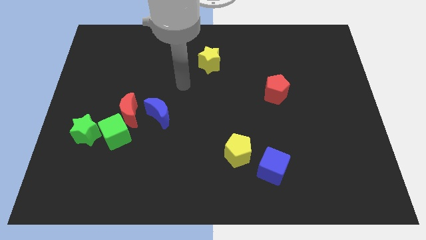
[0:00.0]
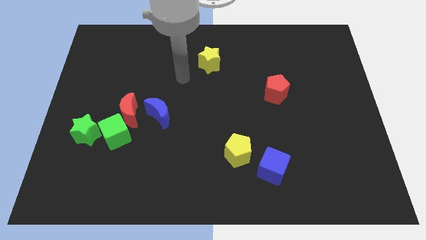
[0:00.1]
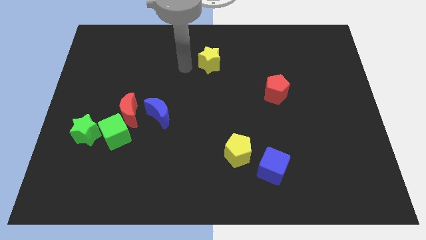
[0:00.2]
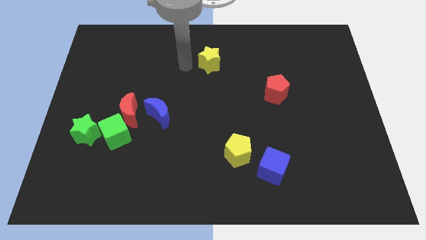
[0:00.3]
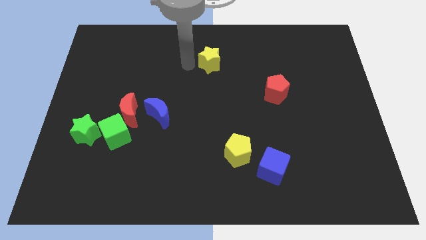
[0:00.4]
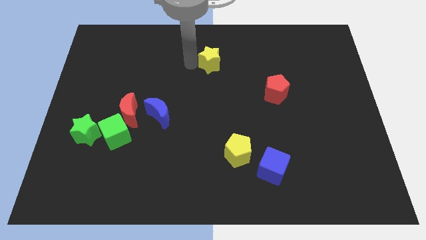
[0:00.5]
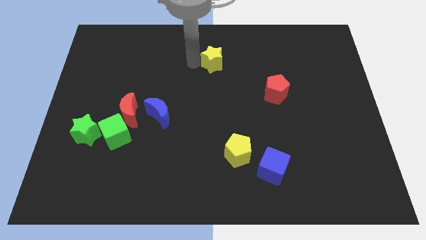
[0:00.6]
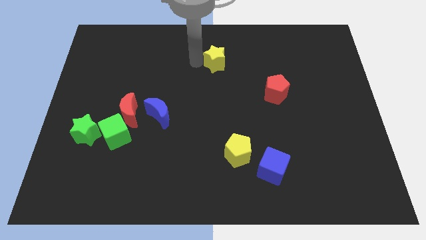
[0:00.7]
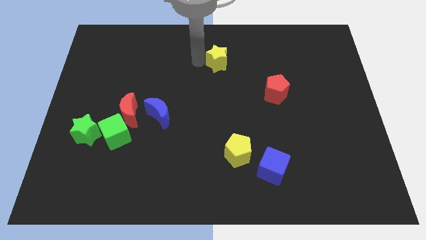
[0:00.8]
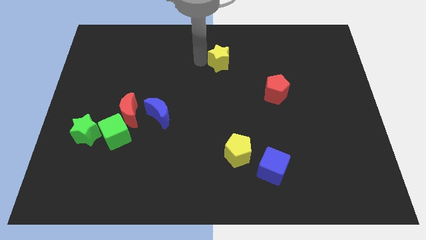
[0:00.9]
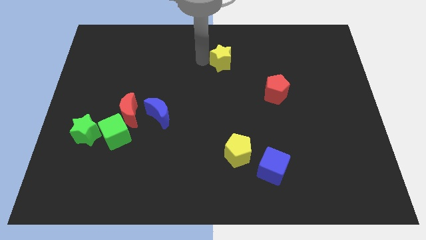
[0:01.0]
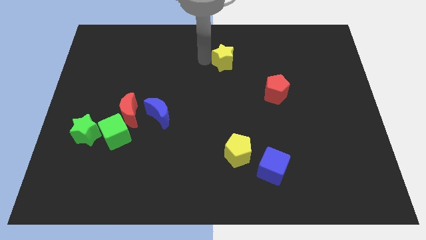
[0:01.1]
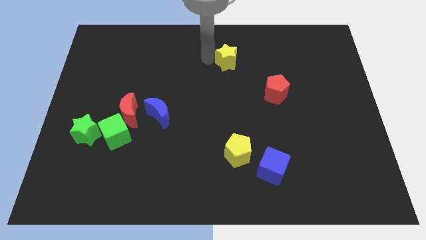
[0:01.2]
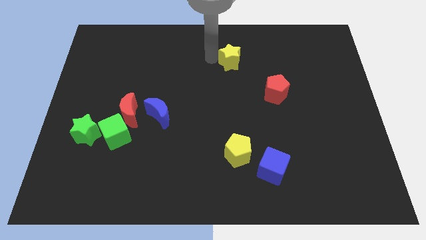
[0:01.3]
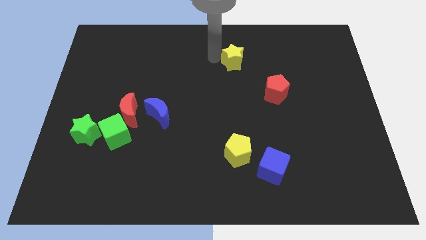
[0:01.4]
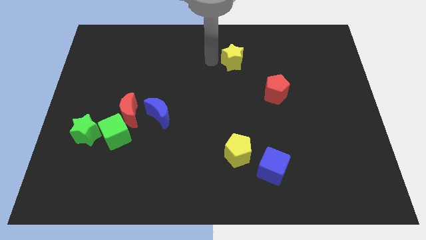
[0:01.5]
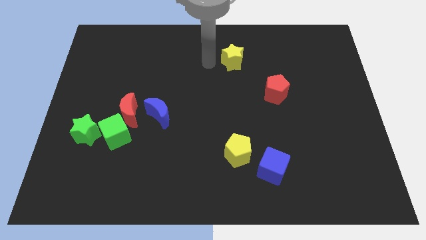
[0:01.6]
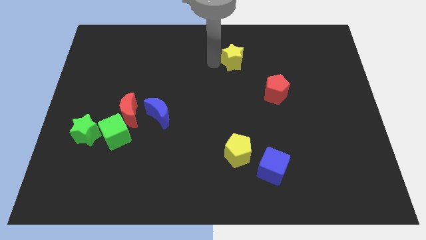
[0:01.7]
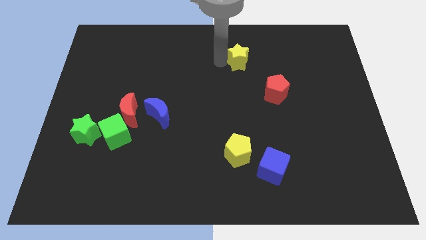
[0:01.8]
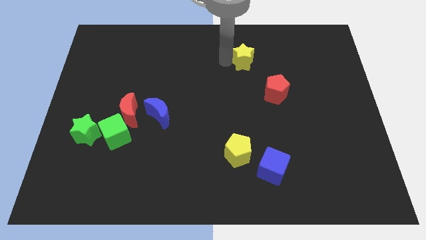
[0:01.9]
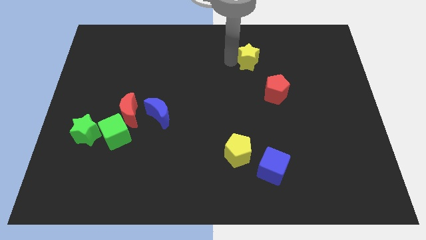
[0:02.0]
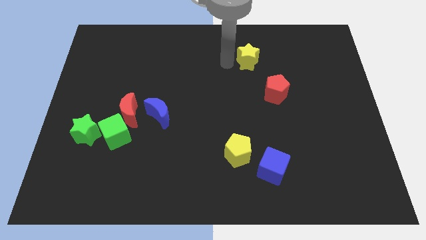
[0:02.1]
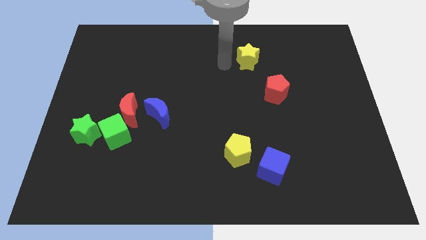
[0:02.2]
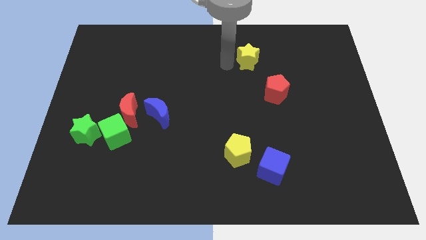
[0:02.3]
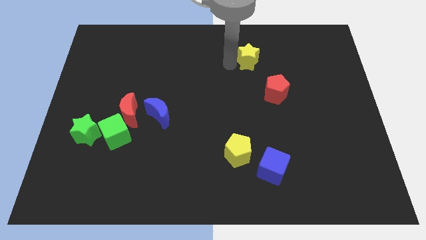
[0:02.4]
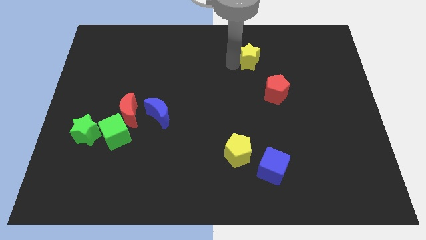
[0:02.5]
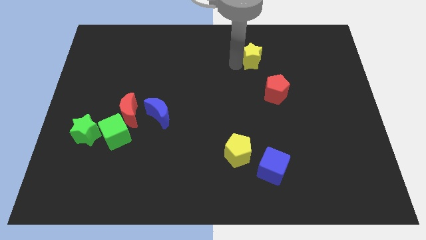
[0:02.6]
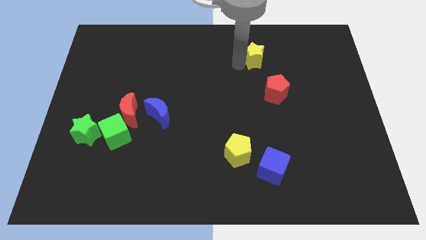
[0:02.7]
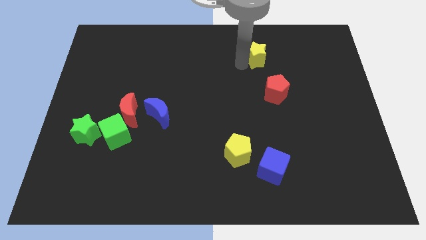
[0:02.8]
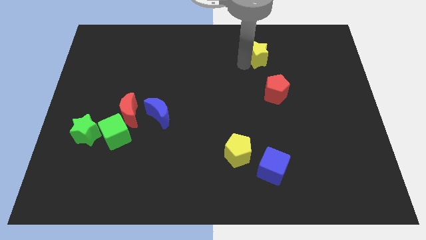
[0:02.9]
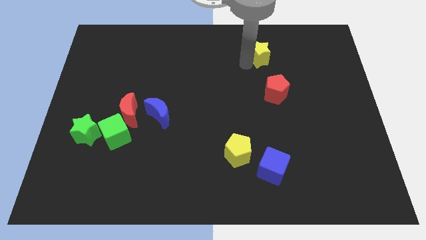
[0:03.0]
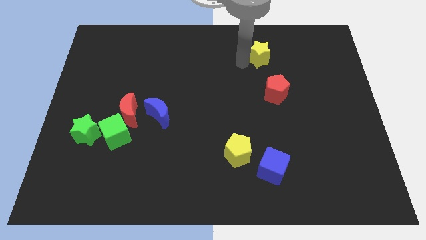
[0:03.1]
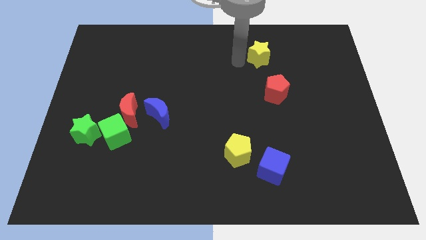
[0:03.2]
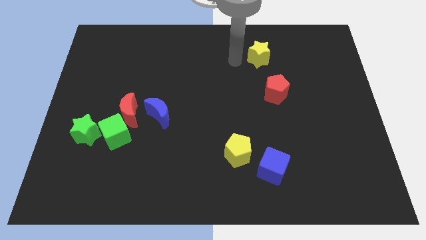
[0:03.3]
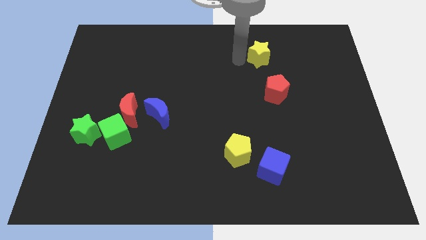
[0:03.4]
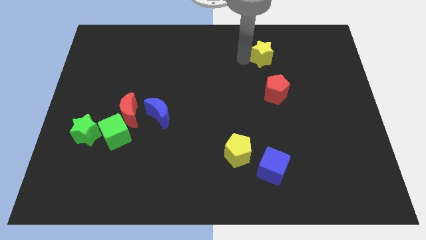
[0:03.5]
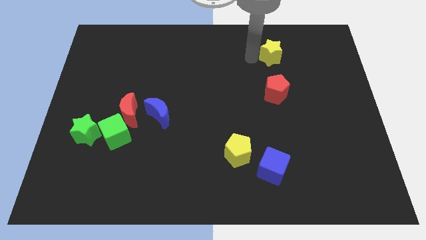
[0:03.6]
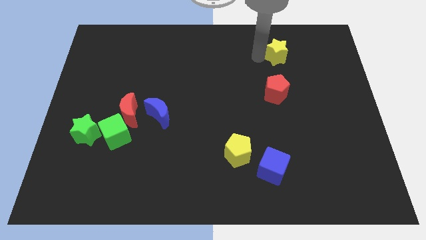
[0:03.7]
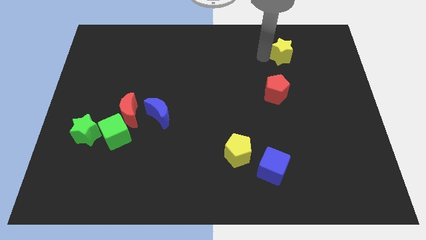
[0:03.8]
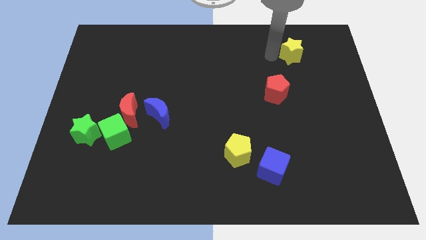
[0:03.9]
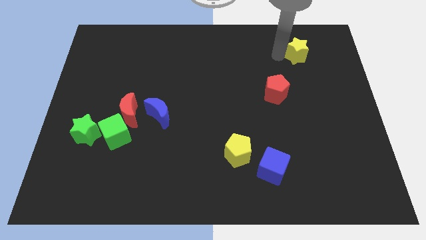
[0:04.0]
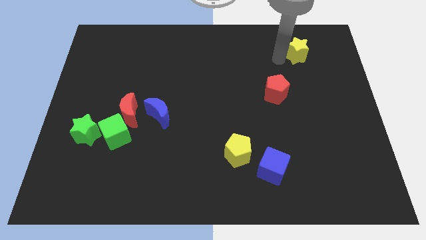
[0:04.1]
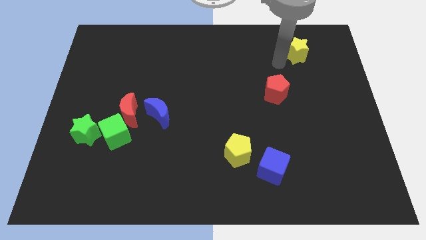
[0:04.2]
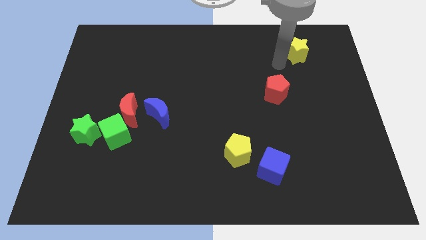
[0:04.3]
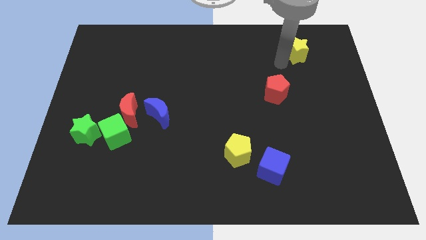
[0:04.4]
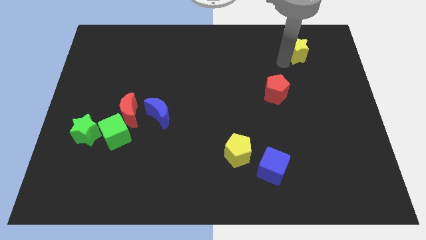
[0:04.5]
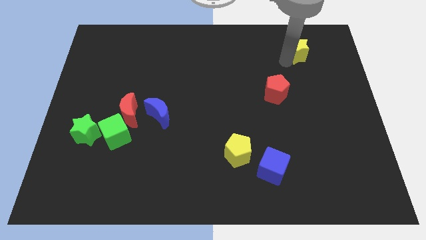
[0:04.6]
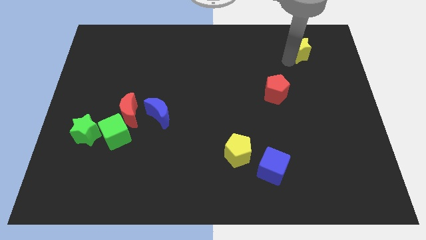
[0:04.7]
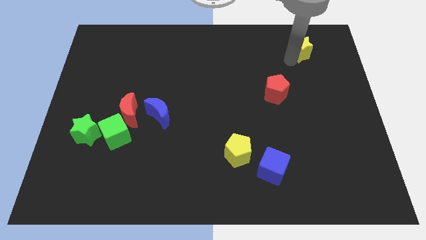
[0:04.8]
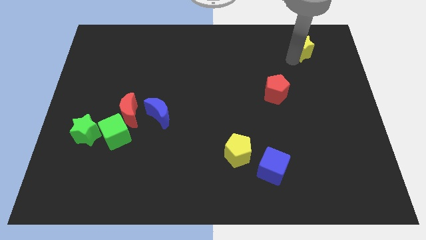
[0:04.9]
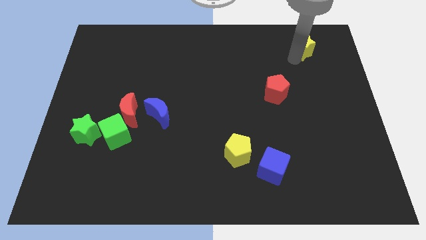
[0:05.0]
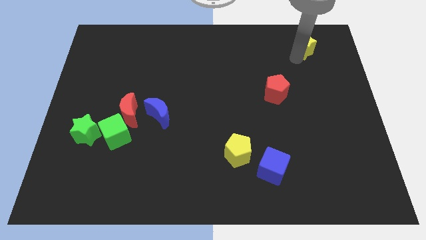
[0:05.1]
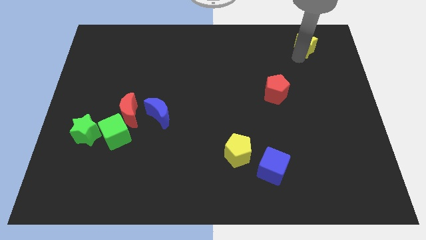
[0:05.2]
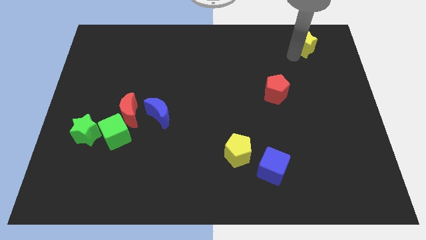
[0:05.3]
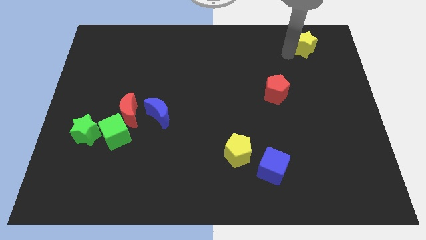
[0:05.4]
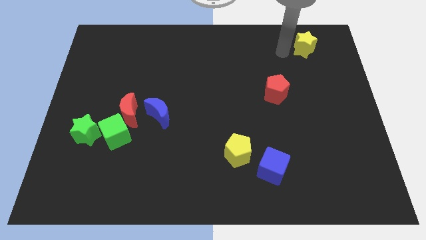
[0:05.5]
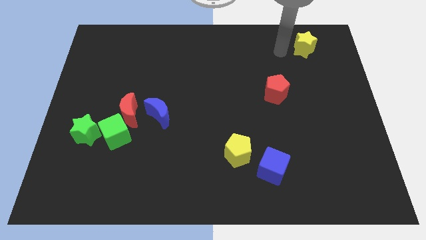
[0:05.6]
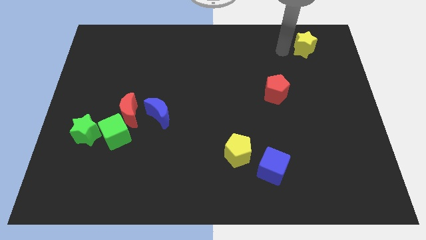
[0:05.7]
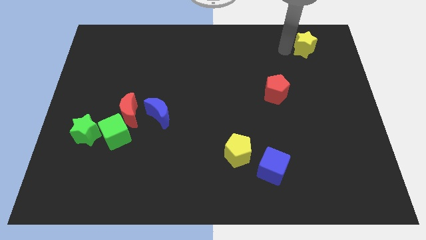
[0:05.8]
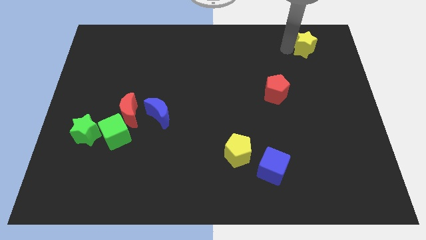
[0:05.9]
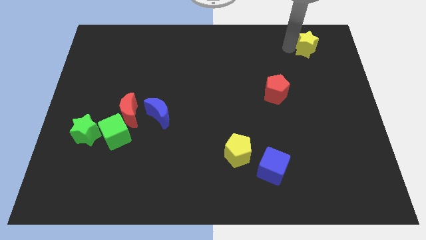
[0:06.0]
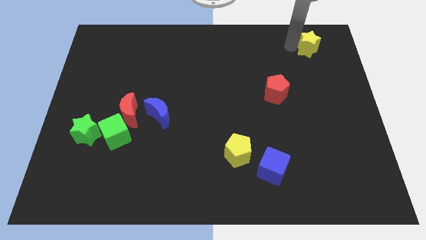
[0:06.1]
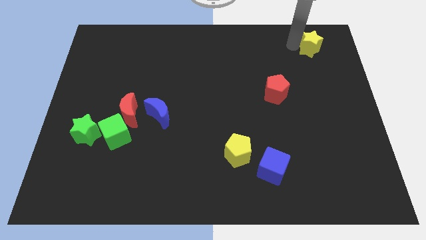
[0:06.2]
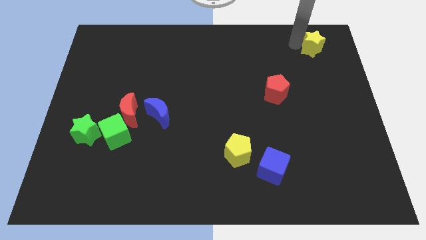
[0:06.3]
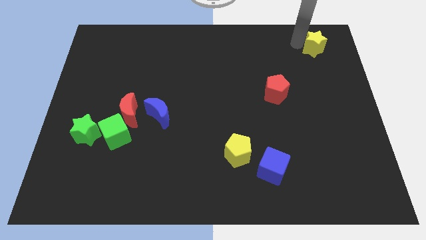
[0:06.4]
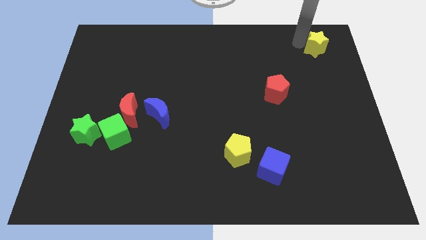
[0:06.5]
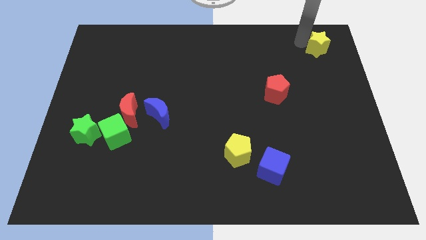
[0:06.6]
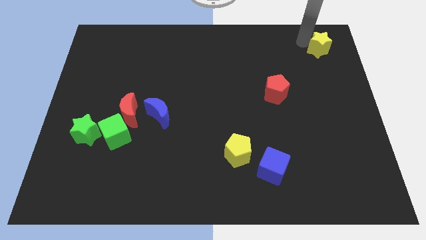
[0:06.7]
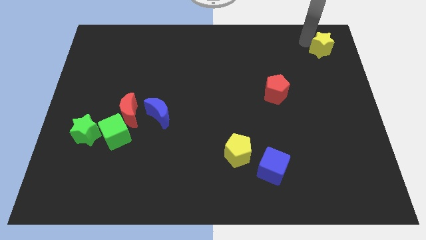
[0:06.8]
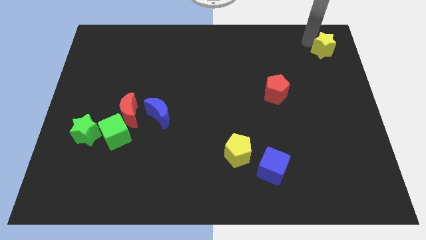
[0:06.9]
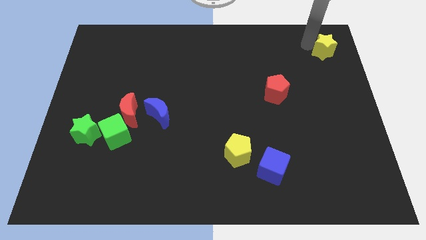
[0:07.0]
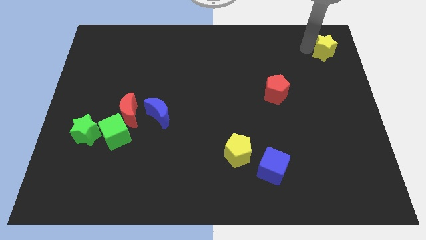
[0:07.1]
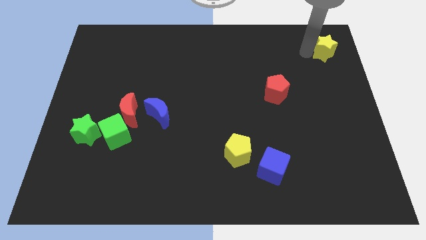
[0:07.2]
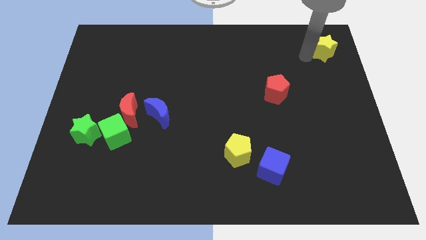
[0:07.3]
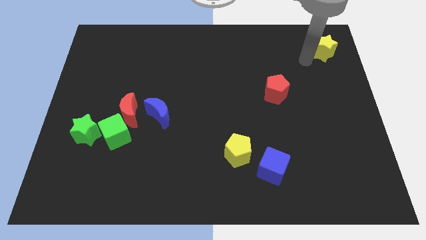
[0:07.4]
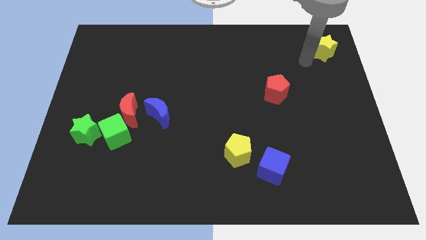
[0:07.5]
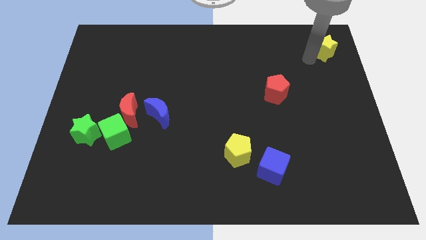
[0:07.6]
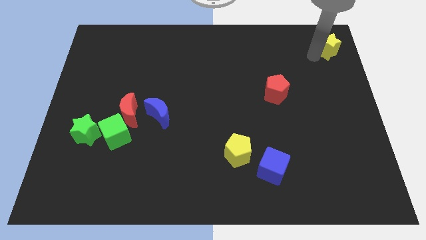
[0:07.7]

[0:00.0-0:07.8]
slide the yellow star to the top right of the board
